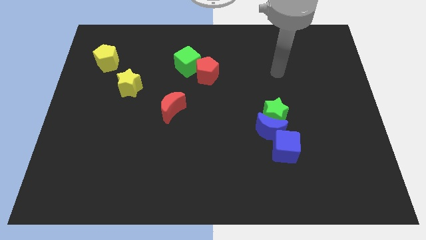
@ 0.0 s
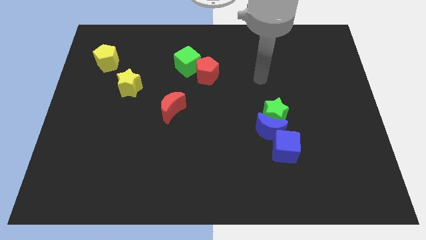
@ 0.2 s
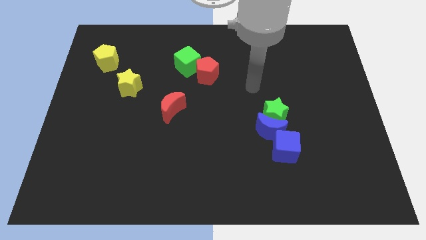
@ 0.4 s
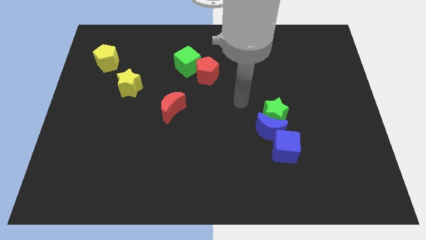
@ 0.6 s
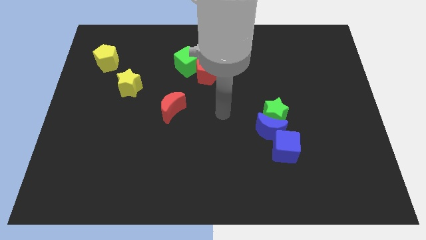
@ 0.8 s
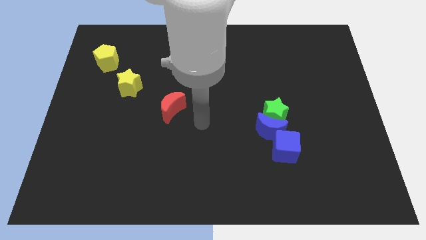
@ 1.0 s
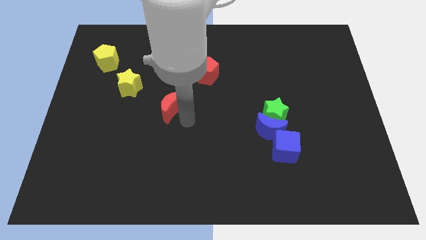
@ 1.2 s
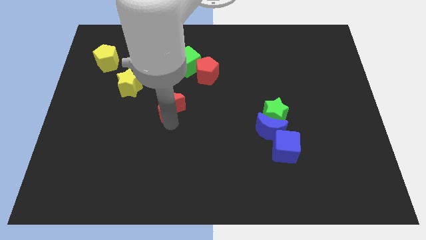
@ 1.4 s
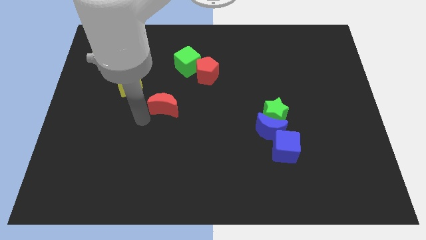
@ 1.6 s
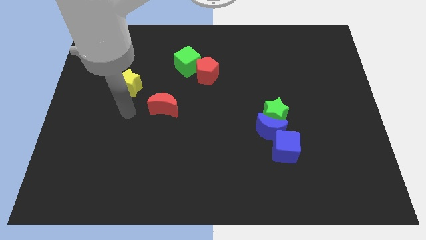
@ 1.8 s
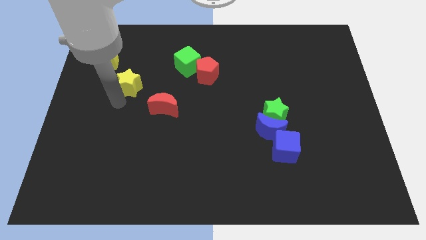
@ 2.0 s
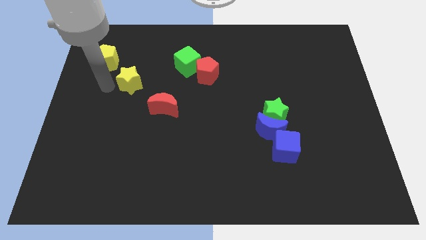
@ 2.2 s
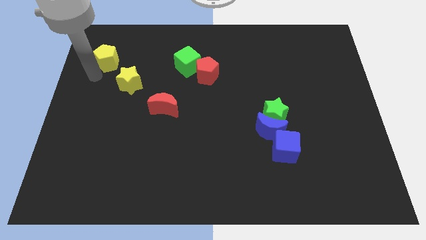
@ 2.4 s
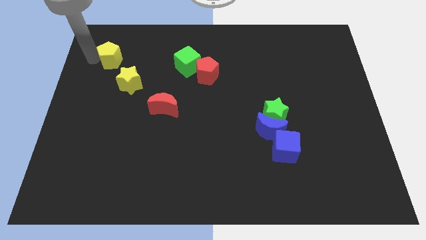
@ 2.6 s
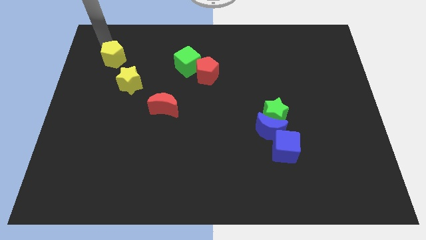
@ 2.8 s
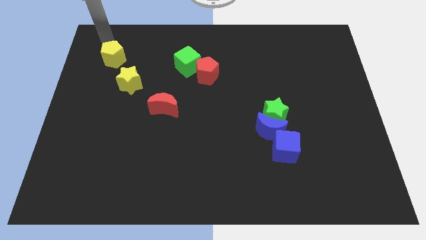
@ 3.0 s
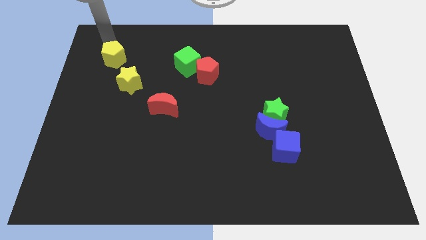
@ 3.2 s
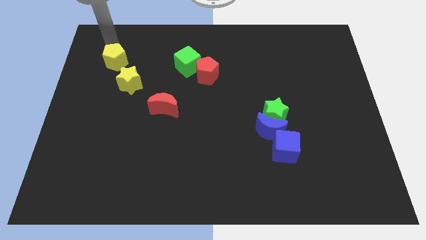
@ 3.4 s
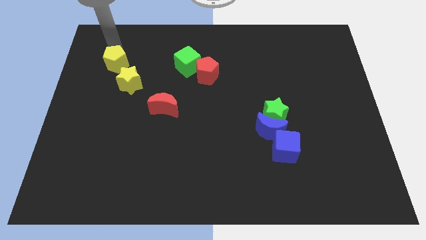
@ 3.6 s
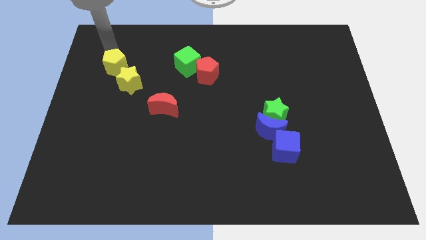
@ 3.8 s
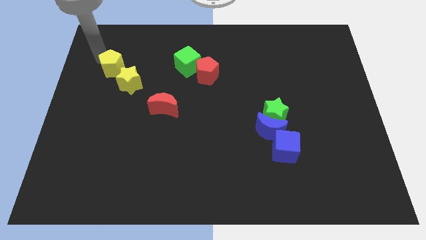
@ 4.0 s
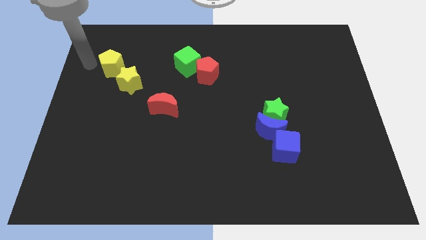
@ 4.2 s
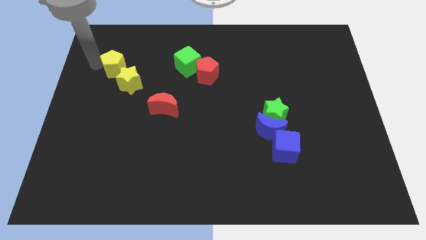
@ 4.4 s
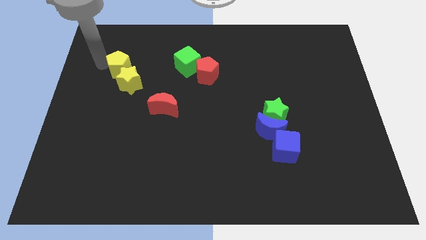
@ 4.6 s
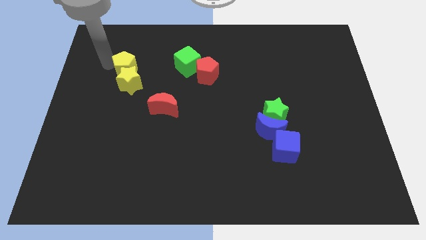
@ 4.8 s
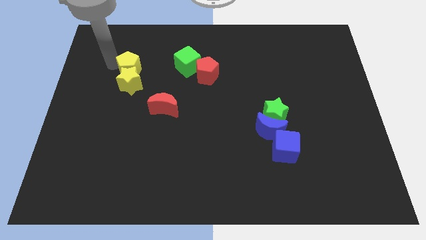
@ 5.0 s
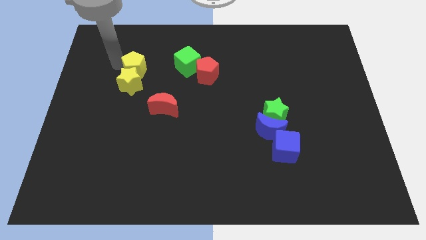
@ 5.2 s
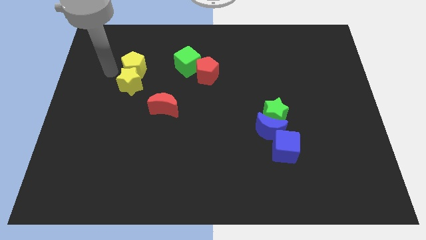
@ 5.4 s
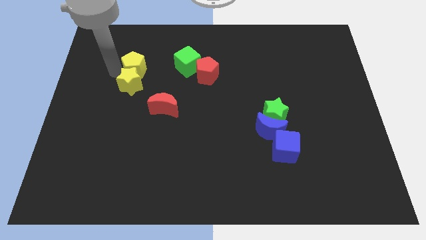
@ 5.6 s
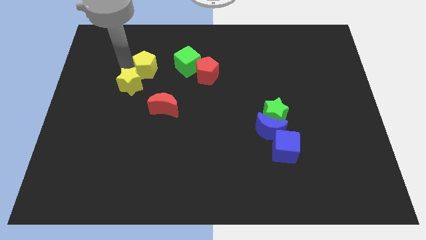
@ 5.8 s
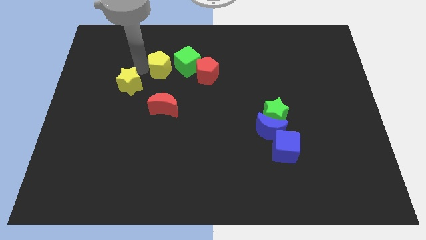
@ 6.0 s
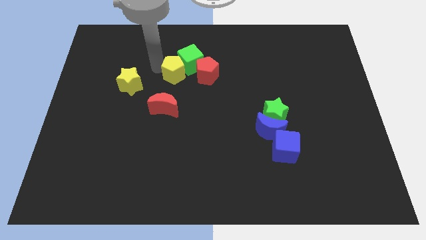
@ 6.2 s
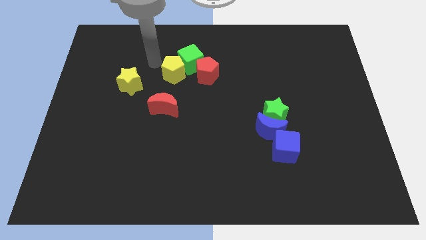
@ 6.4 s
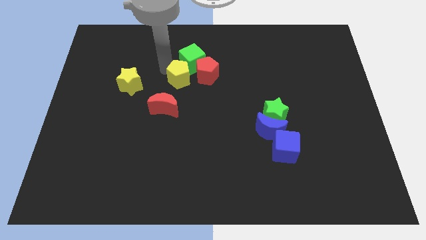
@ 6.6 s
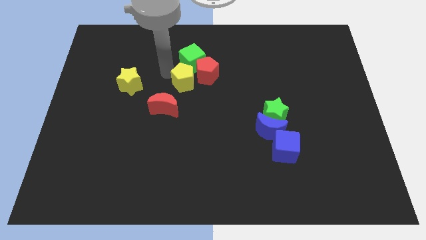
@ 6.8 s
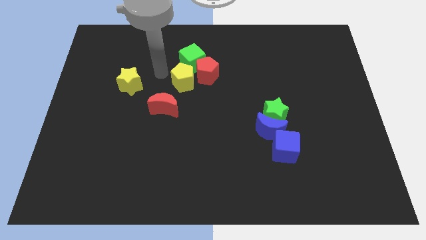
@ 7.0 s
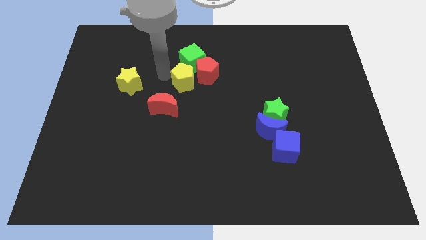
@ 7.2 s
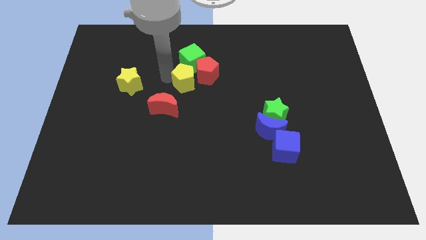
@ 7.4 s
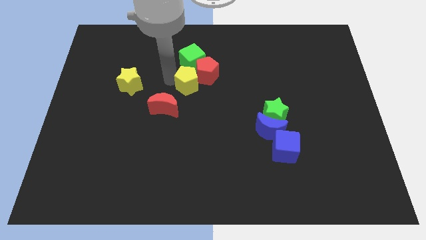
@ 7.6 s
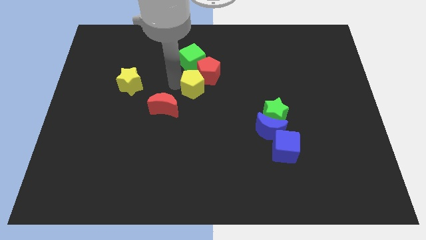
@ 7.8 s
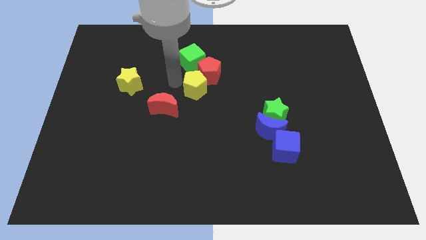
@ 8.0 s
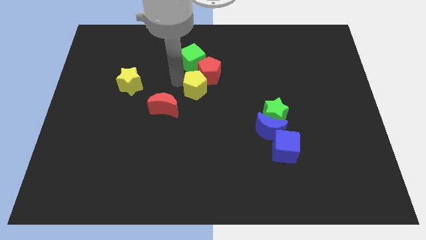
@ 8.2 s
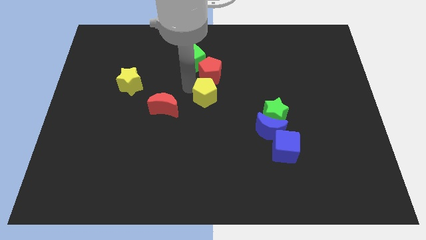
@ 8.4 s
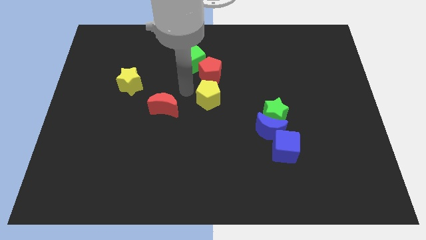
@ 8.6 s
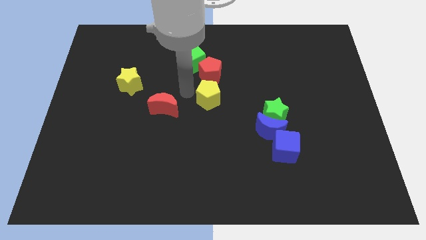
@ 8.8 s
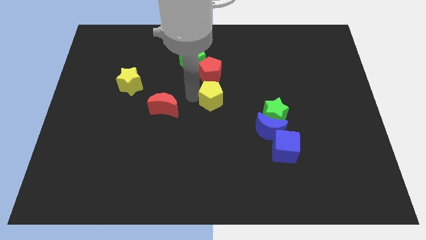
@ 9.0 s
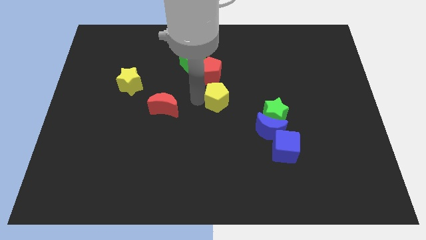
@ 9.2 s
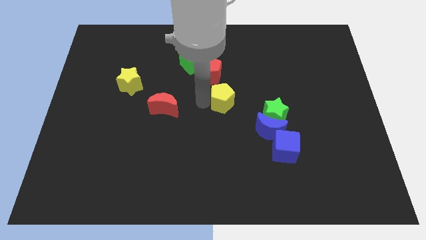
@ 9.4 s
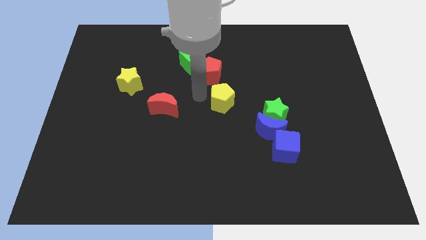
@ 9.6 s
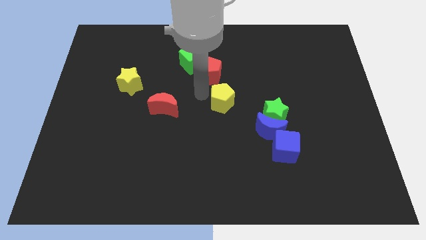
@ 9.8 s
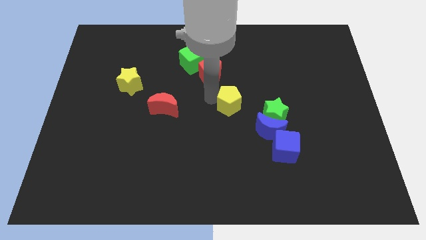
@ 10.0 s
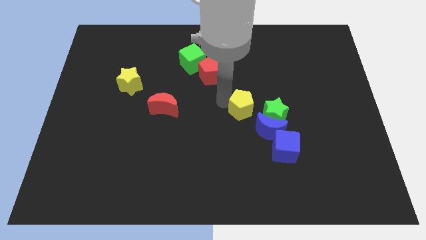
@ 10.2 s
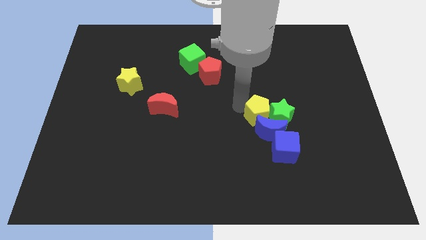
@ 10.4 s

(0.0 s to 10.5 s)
put the yellow pentagon towards the blue moon

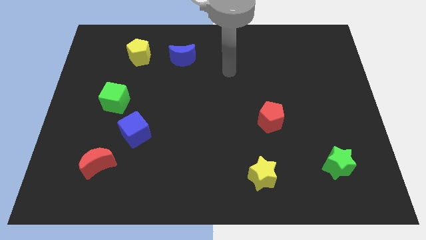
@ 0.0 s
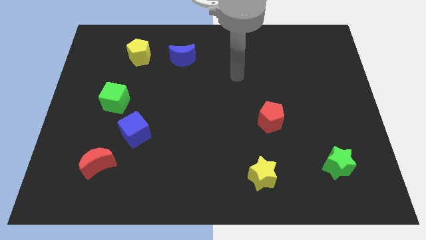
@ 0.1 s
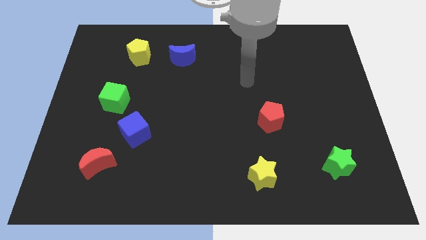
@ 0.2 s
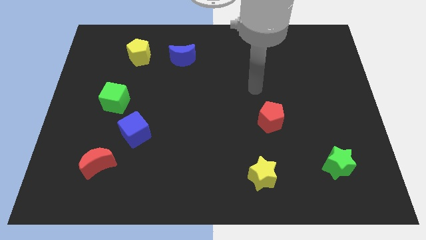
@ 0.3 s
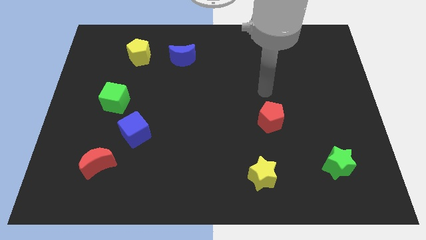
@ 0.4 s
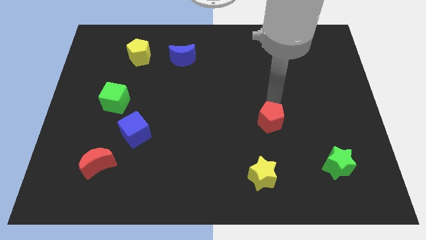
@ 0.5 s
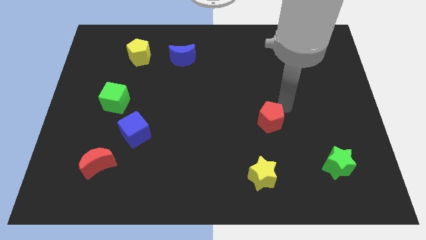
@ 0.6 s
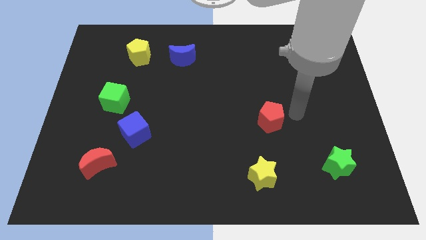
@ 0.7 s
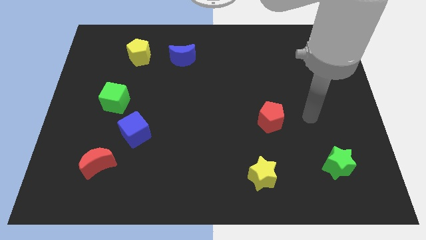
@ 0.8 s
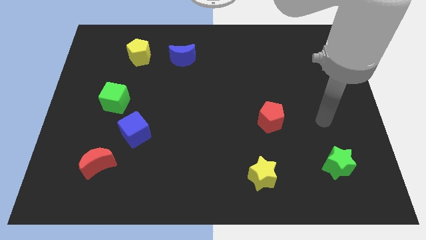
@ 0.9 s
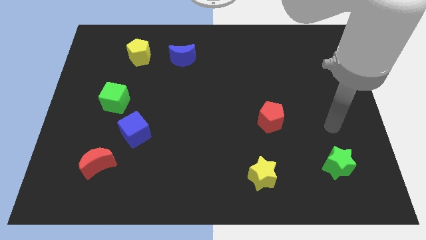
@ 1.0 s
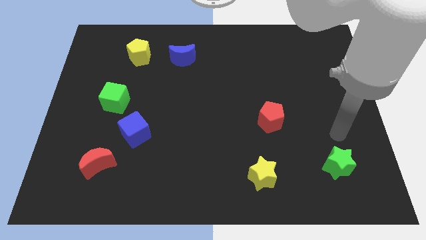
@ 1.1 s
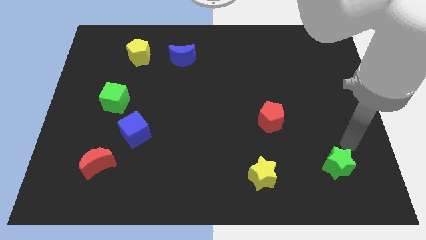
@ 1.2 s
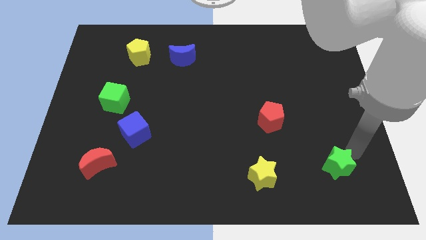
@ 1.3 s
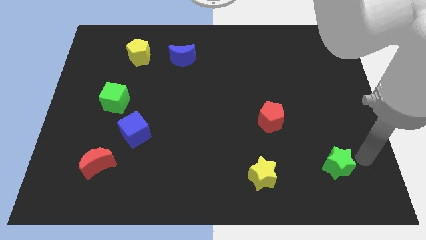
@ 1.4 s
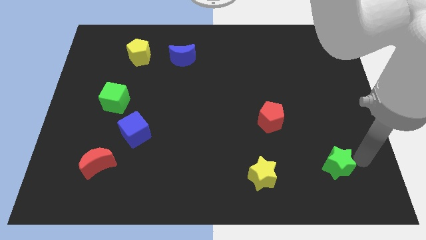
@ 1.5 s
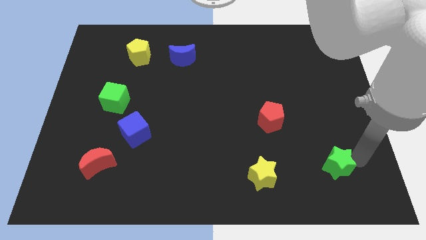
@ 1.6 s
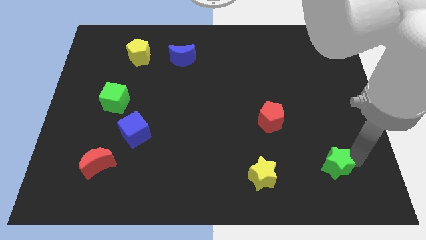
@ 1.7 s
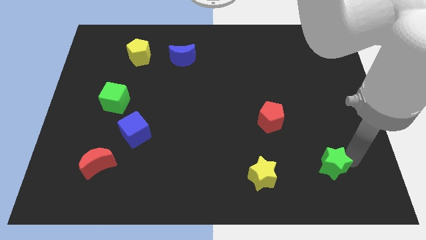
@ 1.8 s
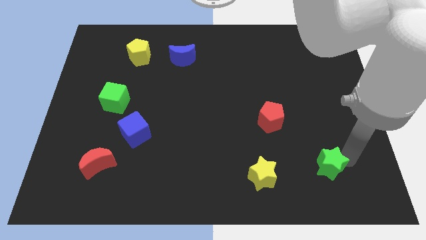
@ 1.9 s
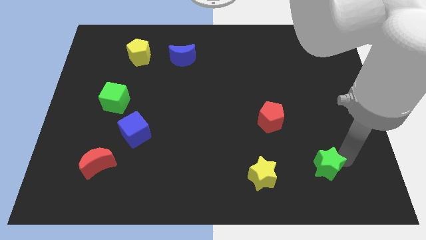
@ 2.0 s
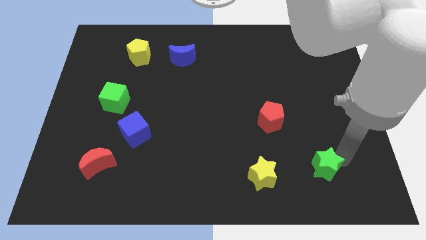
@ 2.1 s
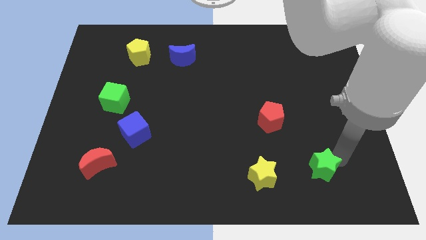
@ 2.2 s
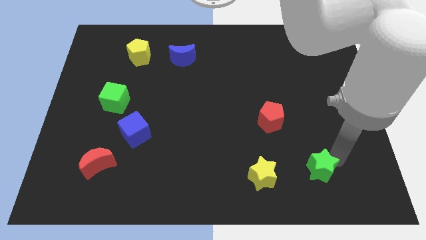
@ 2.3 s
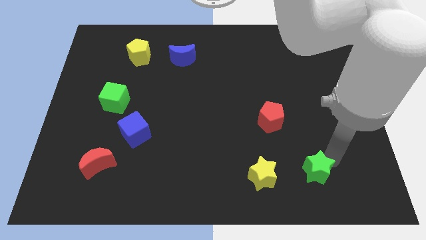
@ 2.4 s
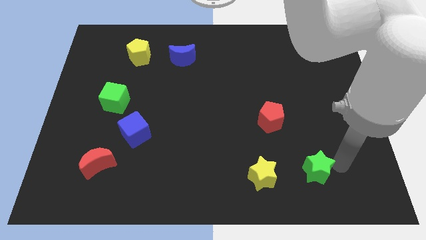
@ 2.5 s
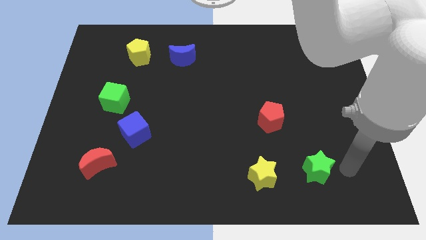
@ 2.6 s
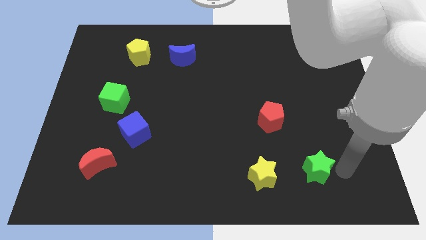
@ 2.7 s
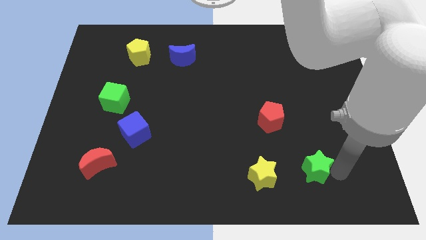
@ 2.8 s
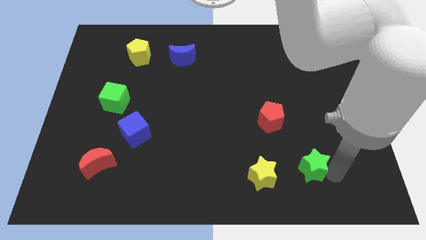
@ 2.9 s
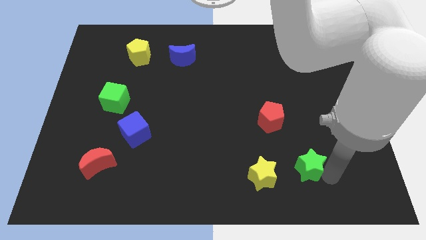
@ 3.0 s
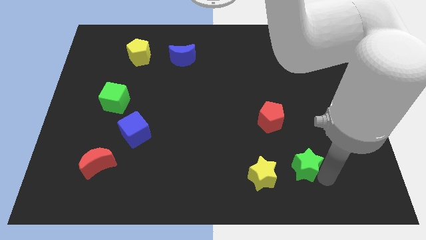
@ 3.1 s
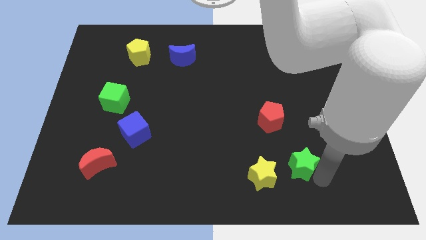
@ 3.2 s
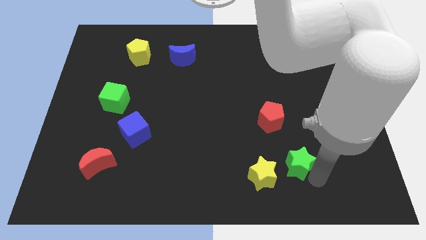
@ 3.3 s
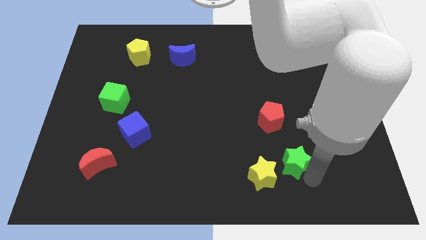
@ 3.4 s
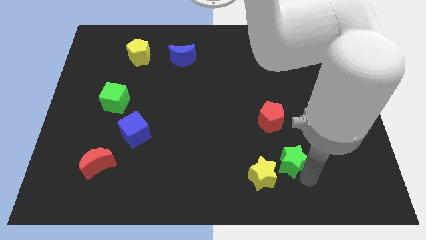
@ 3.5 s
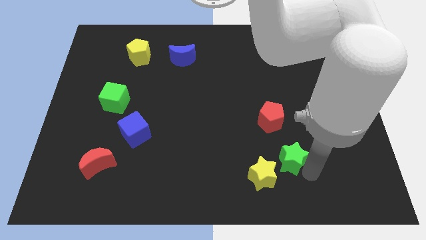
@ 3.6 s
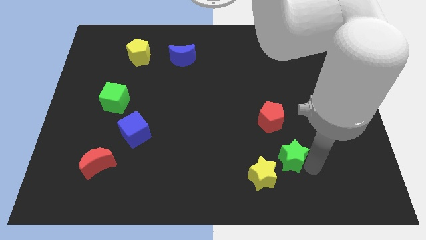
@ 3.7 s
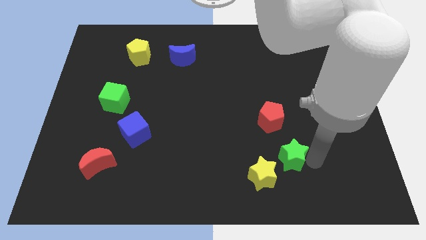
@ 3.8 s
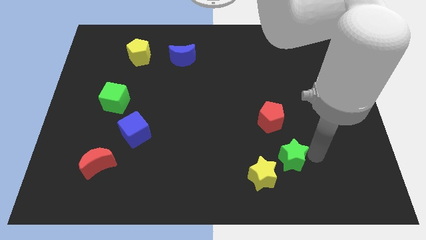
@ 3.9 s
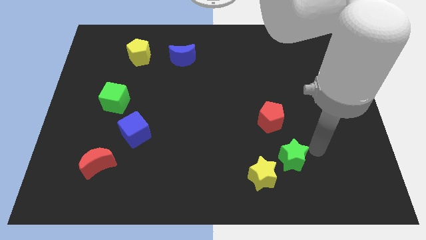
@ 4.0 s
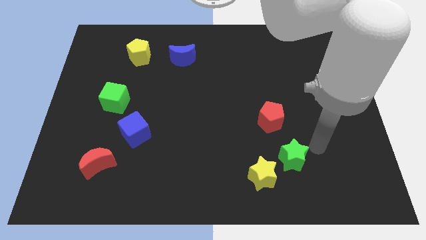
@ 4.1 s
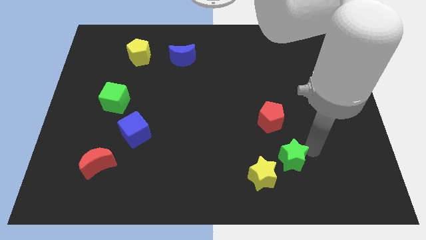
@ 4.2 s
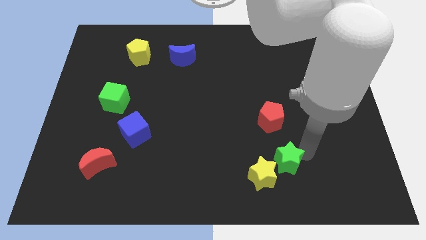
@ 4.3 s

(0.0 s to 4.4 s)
push the green star to the yellow star
